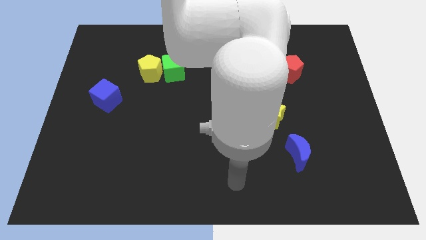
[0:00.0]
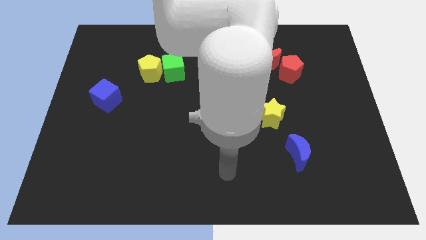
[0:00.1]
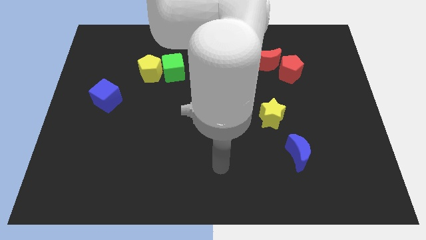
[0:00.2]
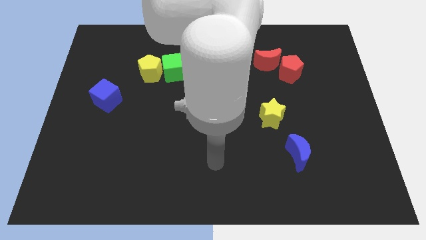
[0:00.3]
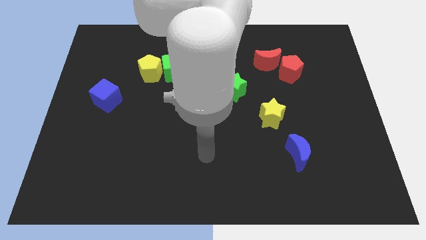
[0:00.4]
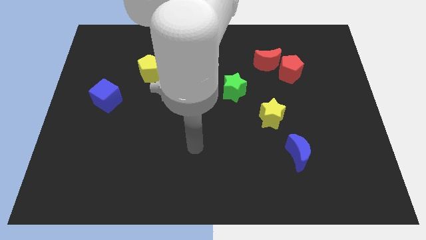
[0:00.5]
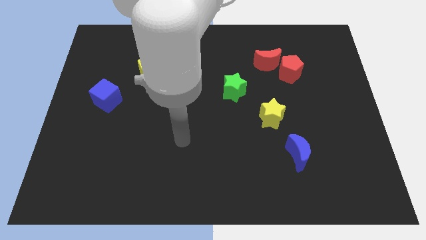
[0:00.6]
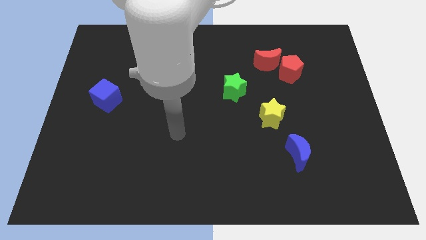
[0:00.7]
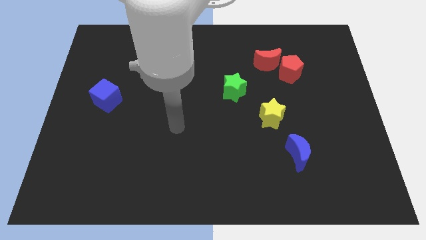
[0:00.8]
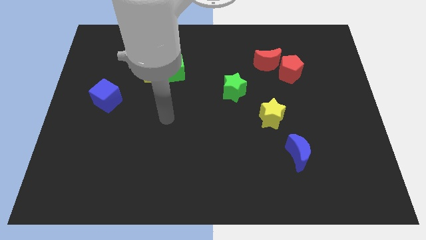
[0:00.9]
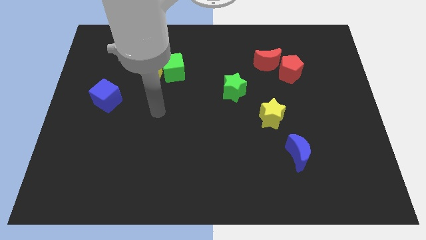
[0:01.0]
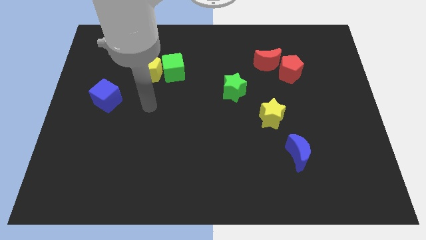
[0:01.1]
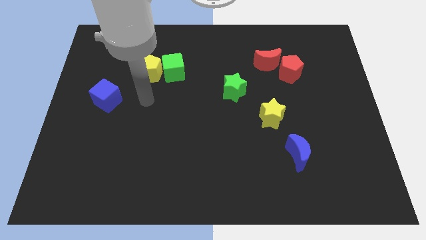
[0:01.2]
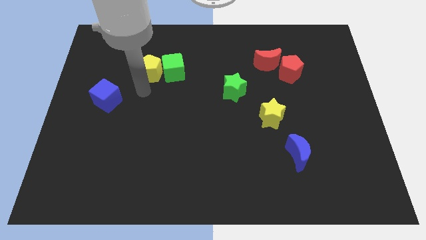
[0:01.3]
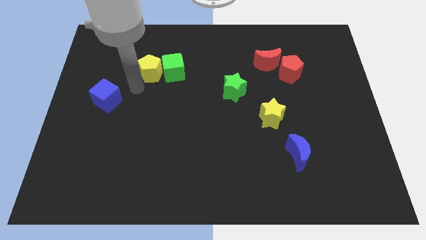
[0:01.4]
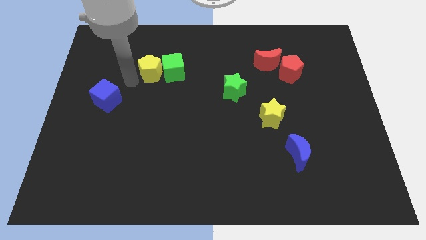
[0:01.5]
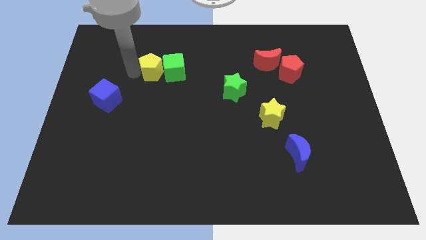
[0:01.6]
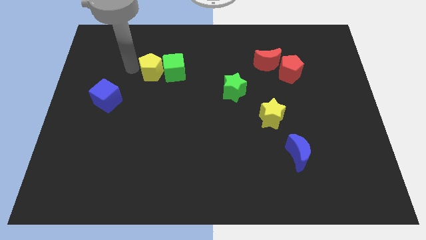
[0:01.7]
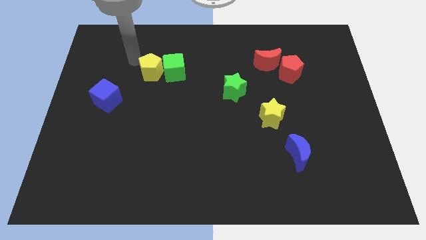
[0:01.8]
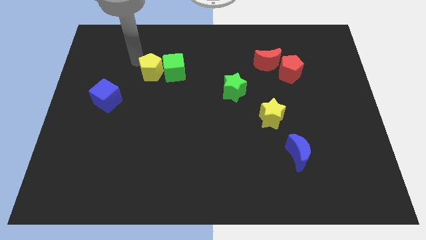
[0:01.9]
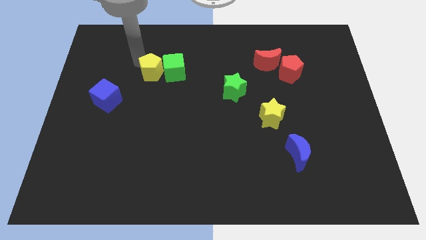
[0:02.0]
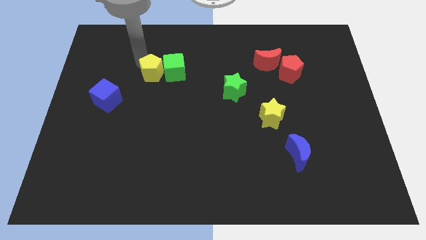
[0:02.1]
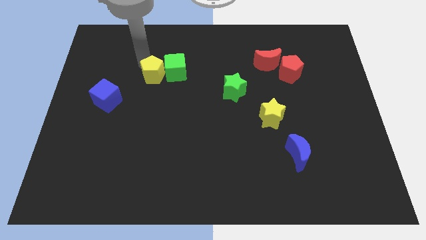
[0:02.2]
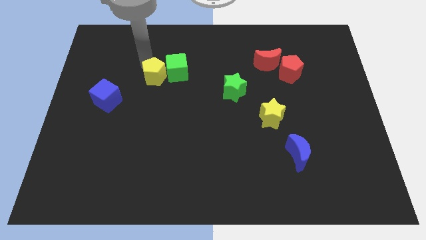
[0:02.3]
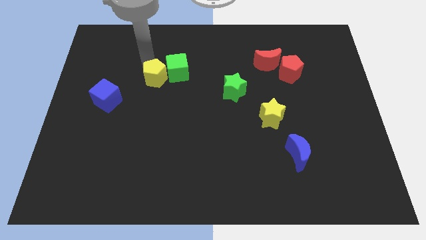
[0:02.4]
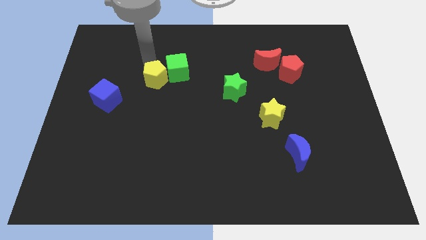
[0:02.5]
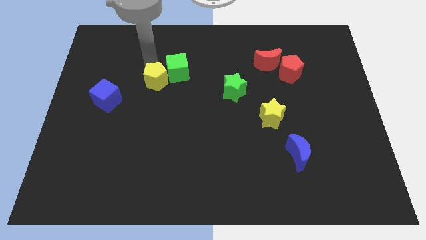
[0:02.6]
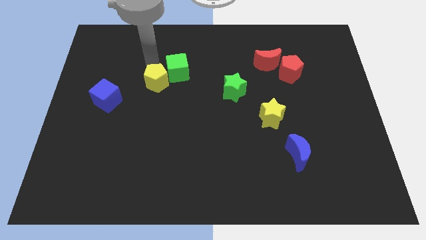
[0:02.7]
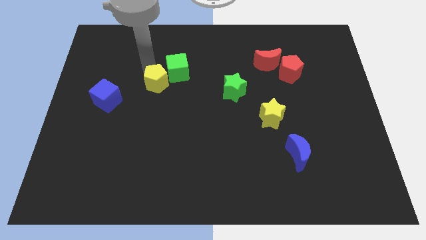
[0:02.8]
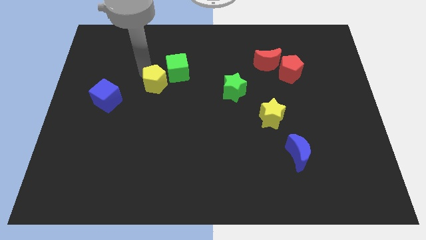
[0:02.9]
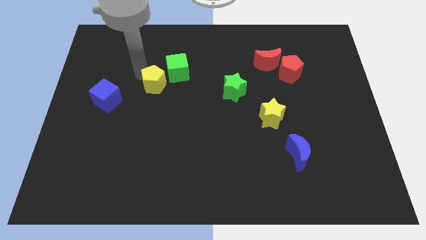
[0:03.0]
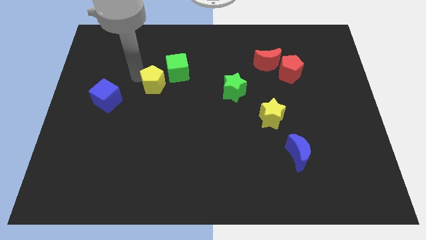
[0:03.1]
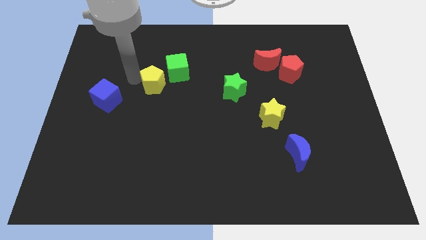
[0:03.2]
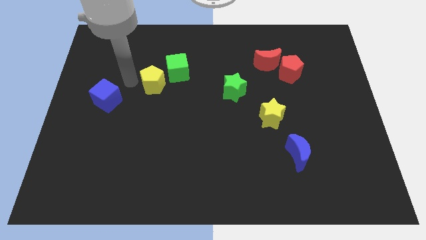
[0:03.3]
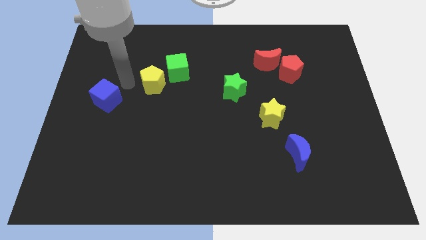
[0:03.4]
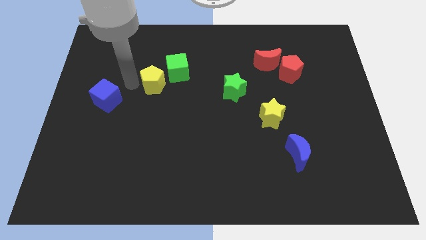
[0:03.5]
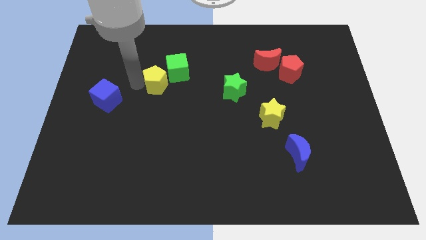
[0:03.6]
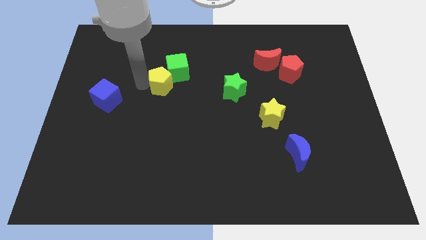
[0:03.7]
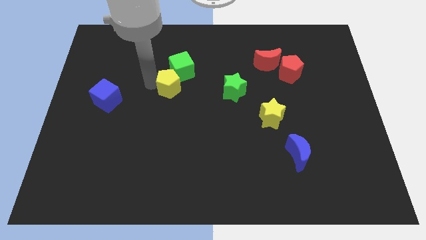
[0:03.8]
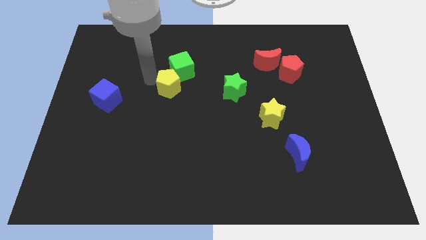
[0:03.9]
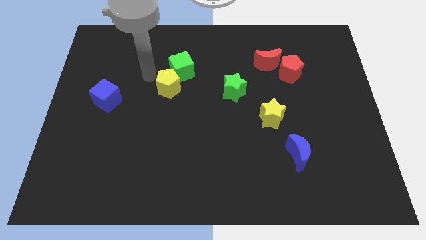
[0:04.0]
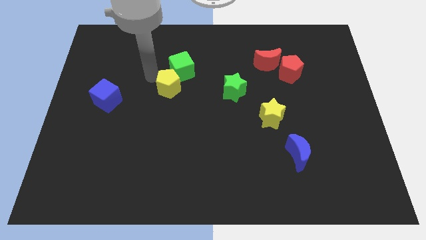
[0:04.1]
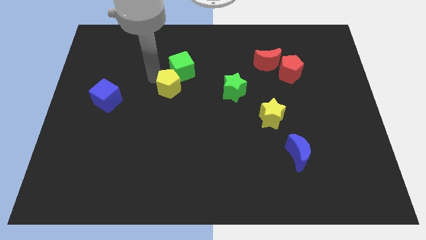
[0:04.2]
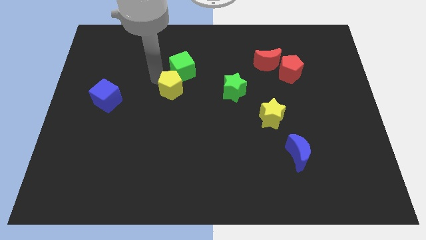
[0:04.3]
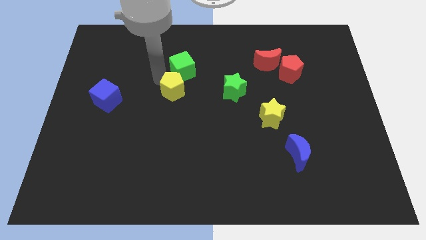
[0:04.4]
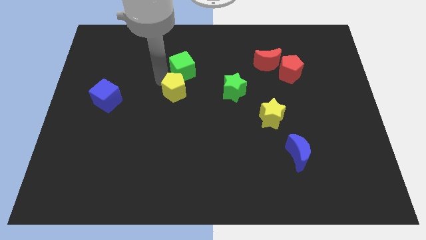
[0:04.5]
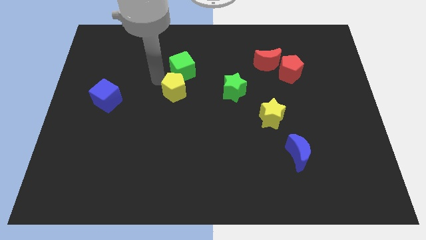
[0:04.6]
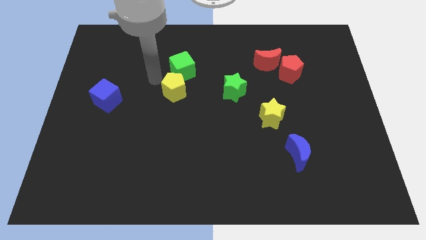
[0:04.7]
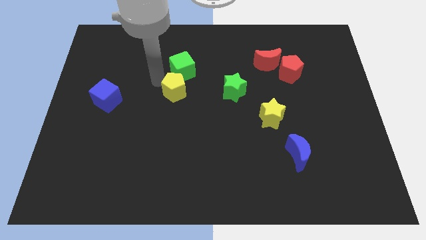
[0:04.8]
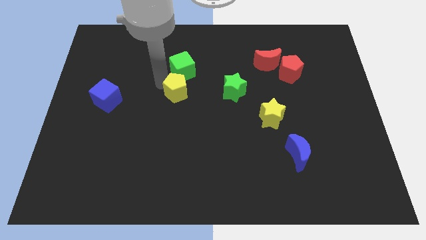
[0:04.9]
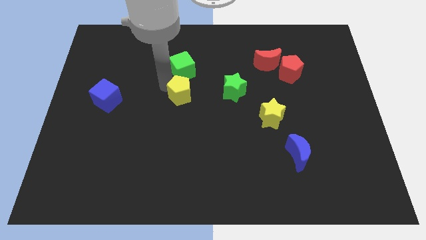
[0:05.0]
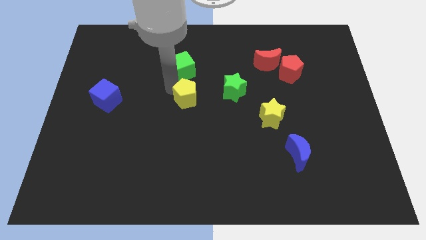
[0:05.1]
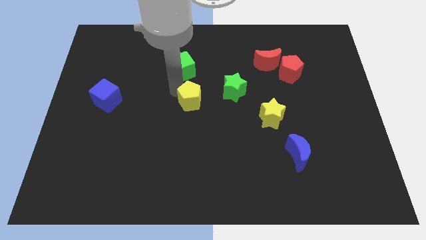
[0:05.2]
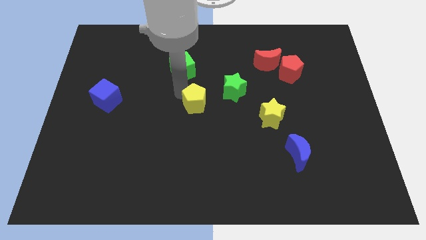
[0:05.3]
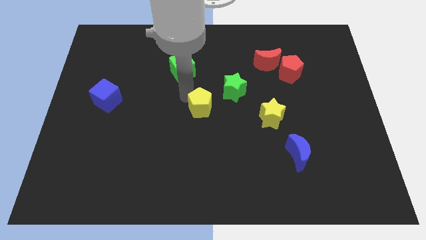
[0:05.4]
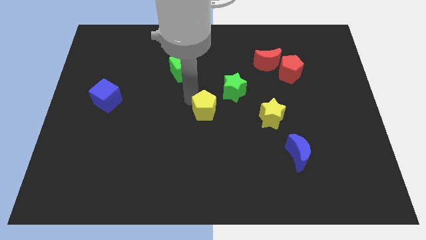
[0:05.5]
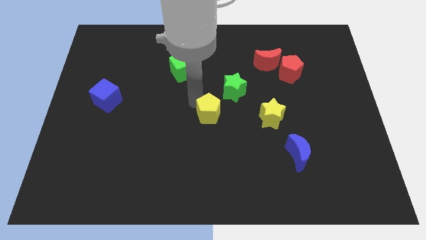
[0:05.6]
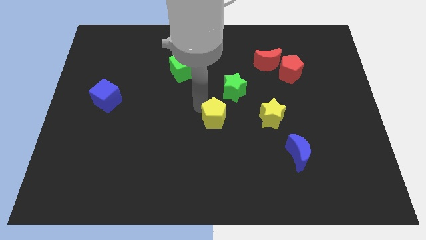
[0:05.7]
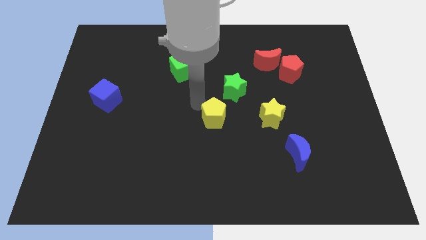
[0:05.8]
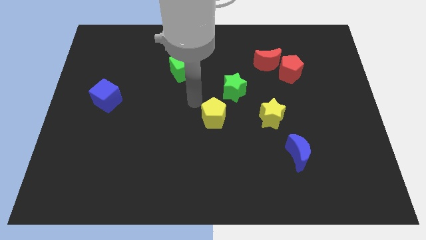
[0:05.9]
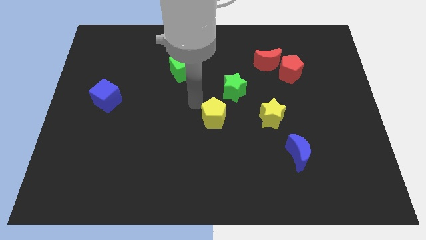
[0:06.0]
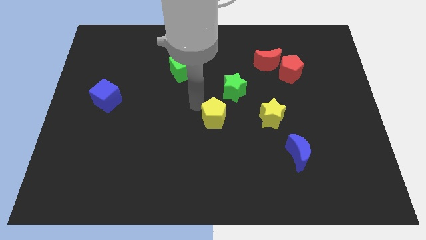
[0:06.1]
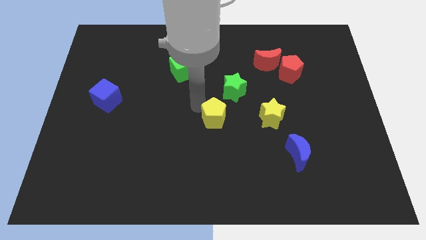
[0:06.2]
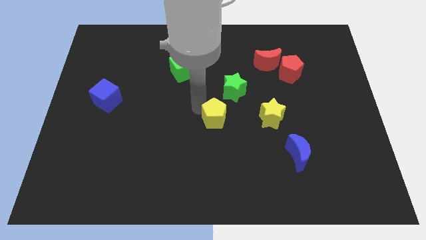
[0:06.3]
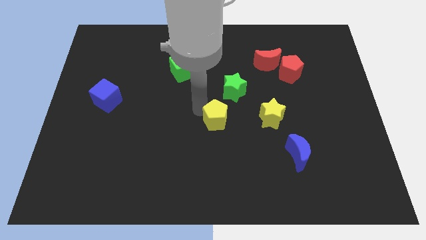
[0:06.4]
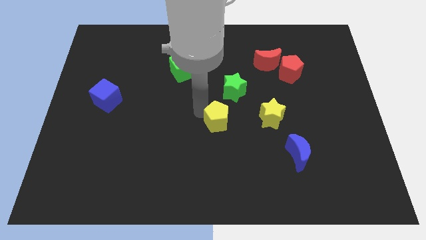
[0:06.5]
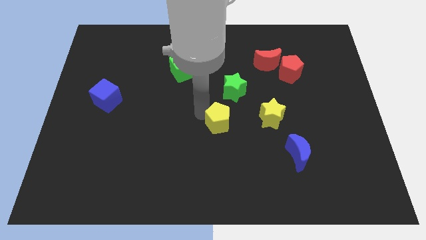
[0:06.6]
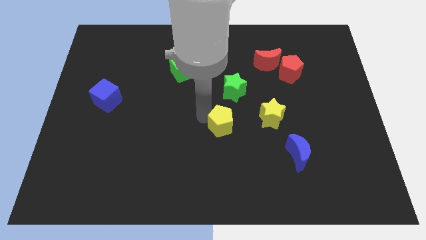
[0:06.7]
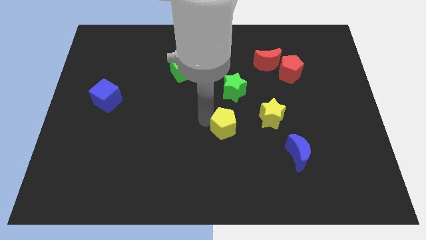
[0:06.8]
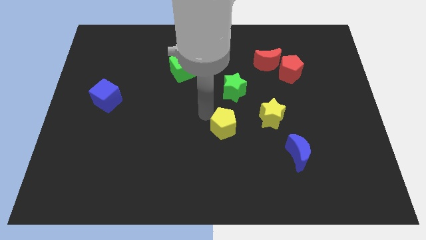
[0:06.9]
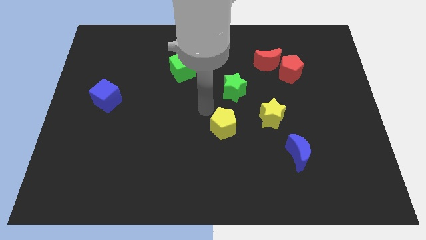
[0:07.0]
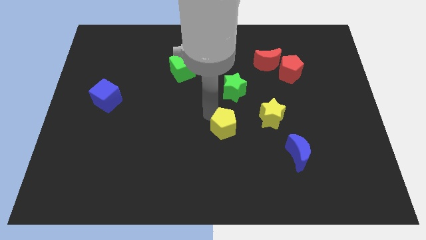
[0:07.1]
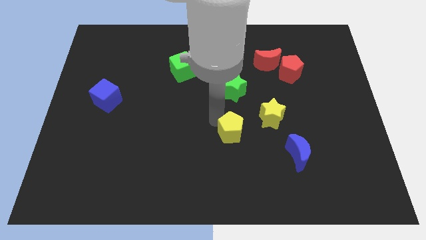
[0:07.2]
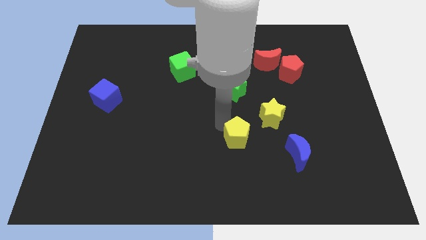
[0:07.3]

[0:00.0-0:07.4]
slide the yellow pentagon to the left side of the blue moon

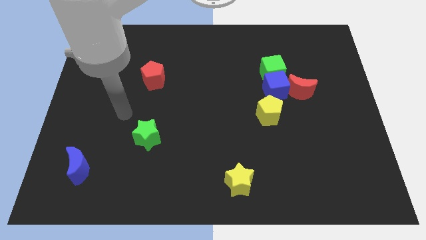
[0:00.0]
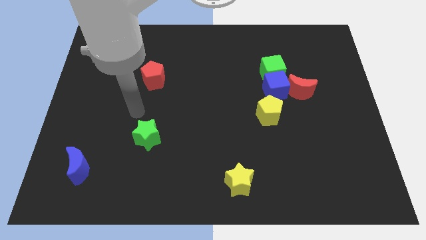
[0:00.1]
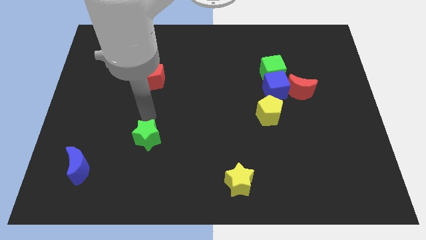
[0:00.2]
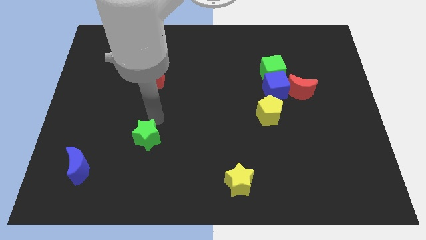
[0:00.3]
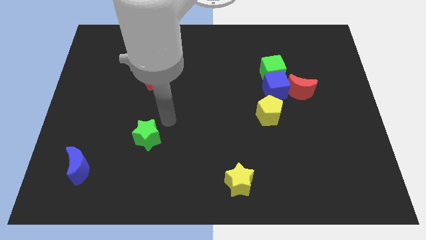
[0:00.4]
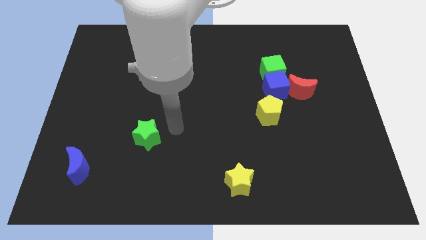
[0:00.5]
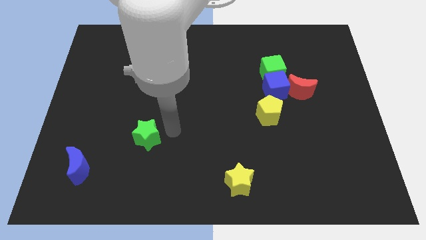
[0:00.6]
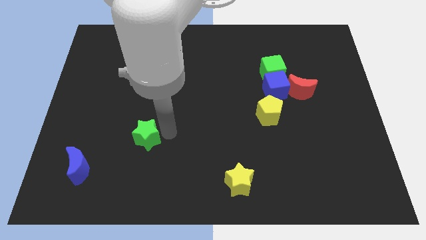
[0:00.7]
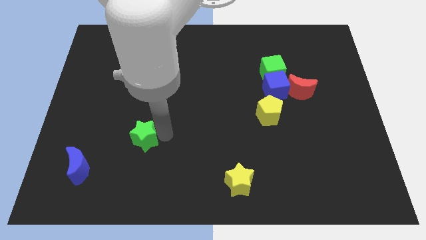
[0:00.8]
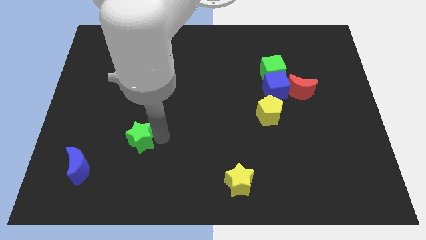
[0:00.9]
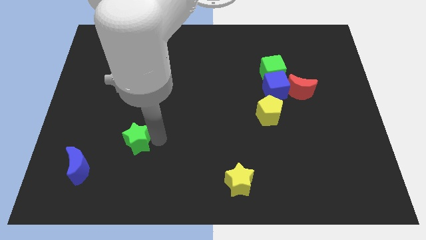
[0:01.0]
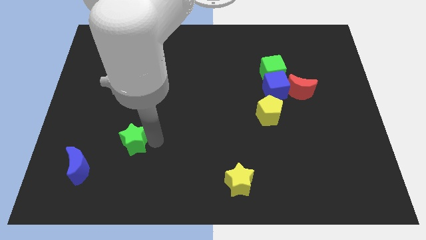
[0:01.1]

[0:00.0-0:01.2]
push the green star to the top right of the blue moon
